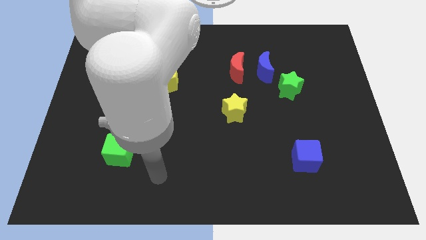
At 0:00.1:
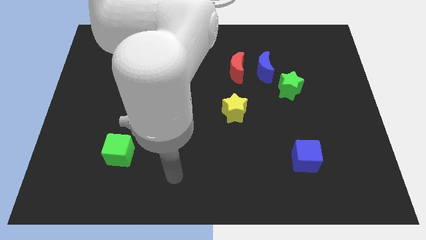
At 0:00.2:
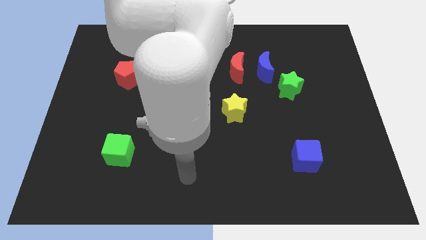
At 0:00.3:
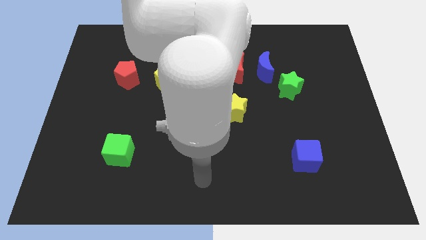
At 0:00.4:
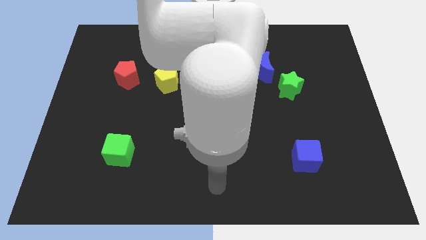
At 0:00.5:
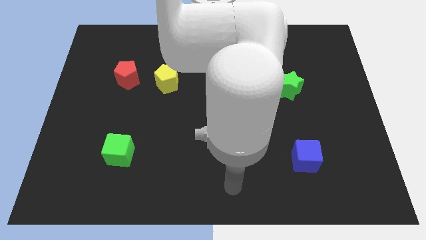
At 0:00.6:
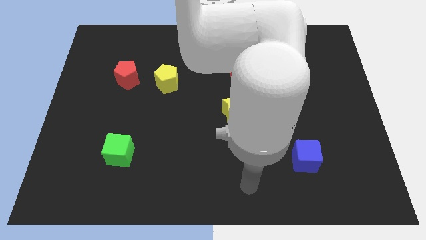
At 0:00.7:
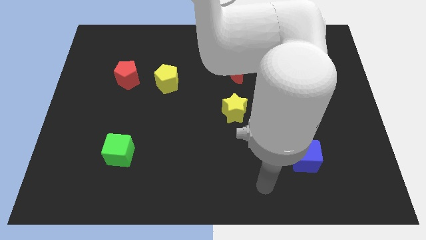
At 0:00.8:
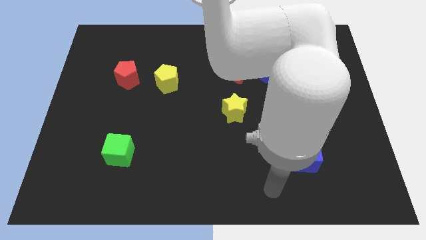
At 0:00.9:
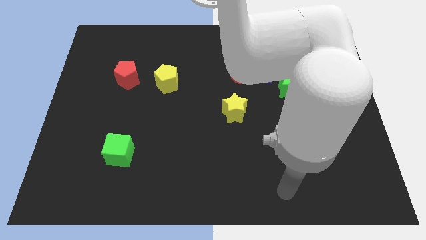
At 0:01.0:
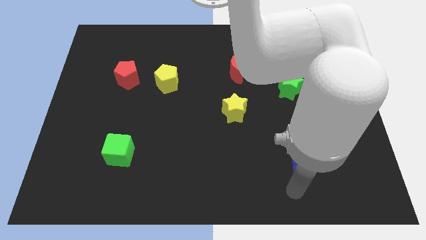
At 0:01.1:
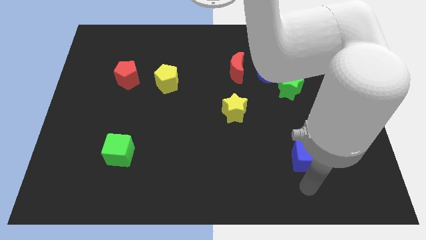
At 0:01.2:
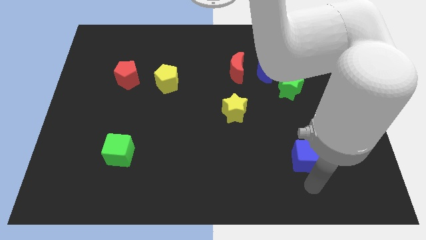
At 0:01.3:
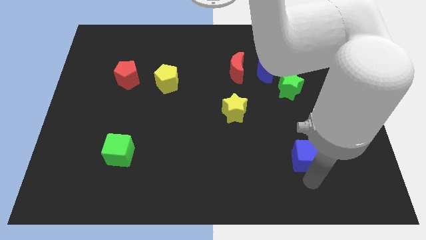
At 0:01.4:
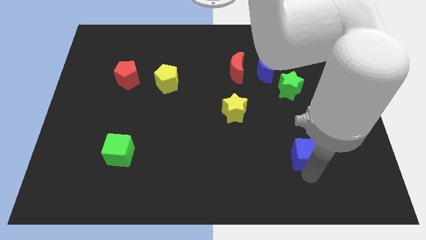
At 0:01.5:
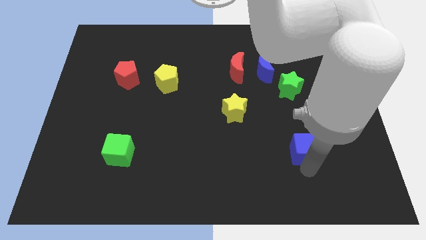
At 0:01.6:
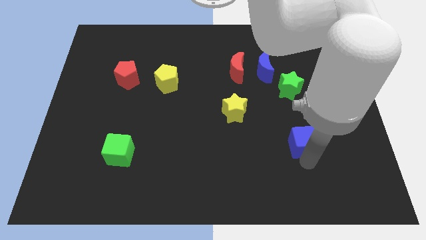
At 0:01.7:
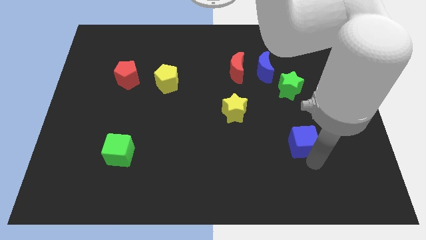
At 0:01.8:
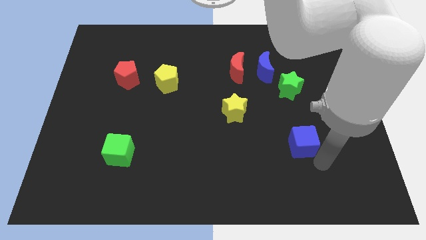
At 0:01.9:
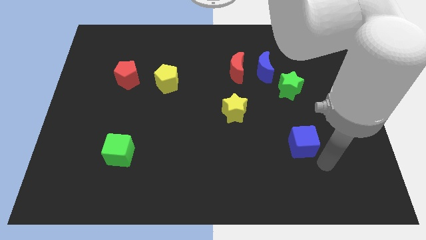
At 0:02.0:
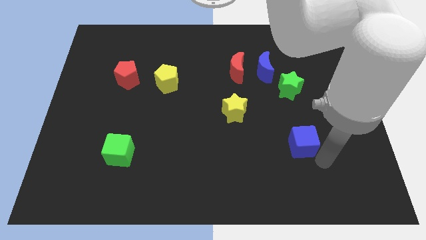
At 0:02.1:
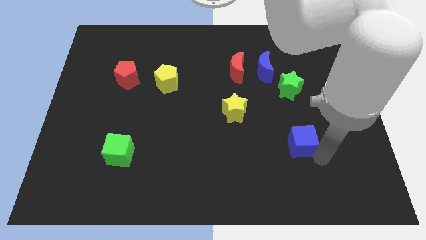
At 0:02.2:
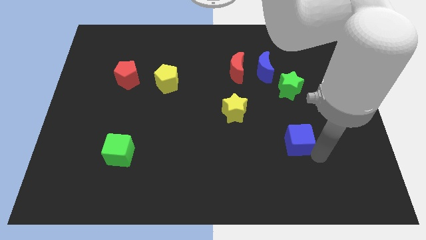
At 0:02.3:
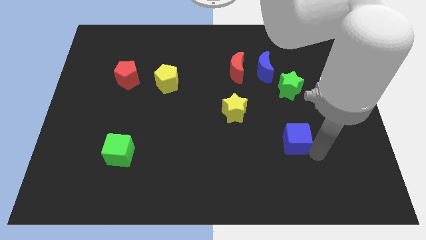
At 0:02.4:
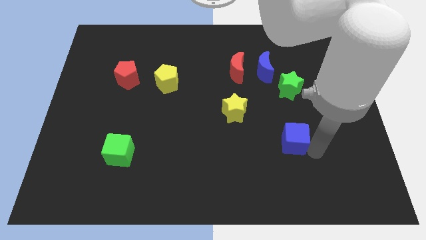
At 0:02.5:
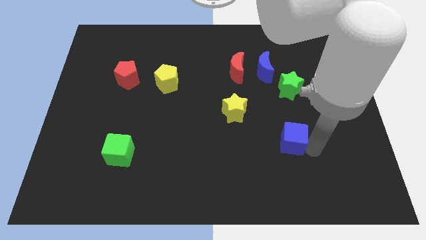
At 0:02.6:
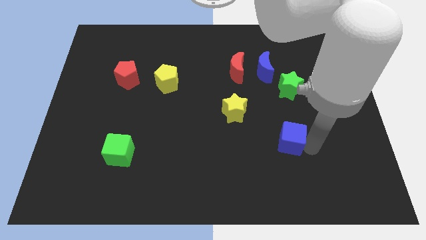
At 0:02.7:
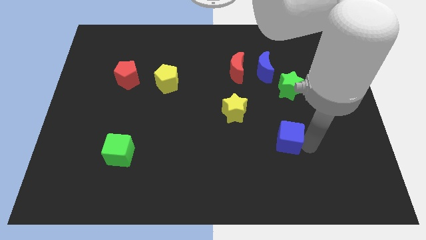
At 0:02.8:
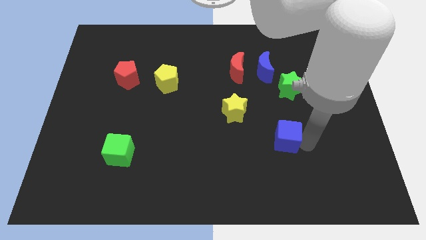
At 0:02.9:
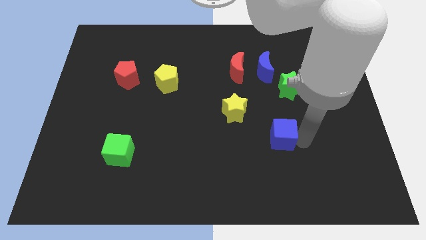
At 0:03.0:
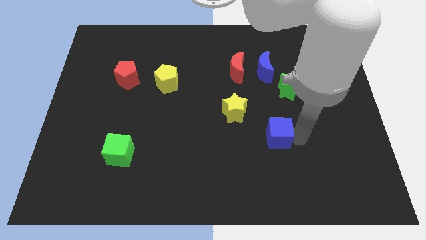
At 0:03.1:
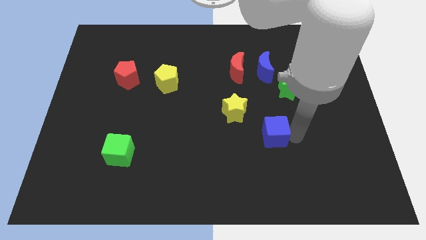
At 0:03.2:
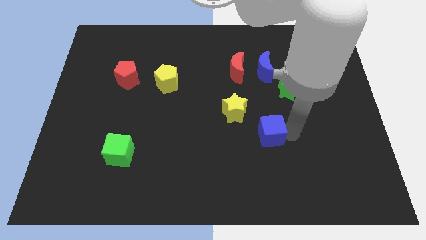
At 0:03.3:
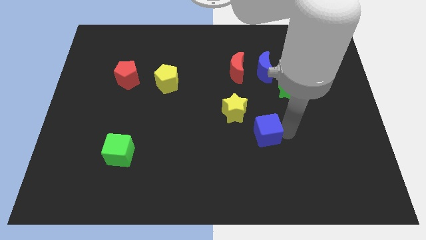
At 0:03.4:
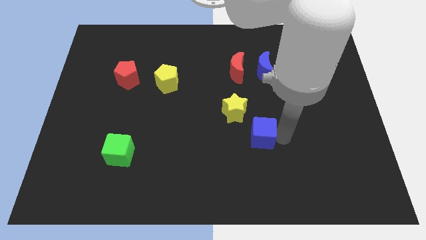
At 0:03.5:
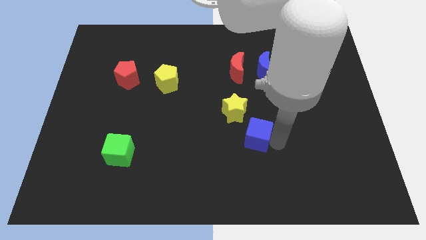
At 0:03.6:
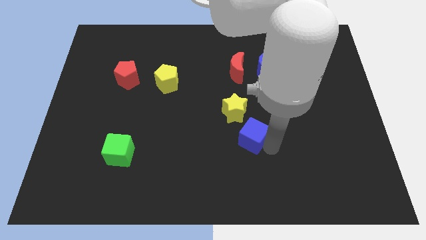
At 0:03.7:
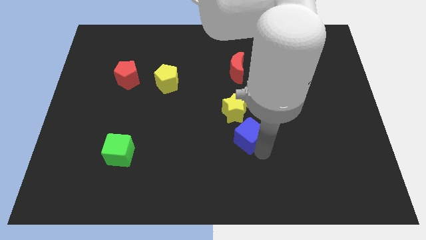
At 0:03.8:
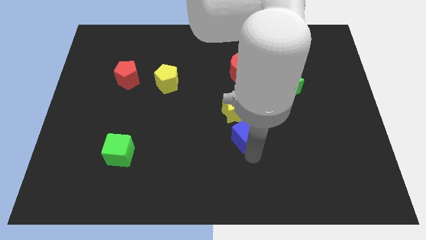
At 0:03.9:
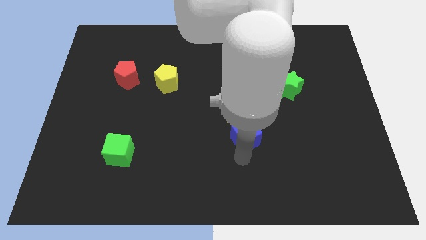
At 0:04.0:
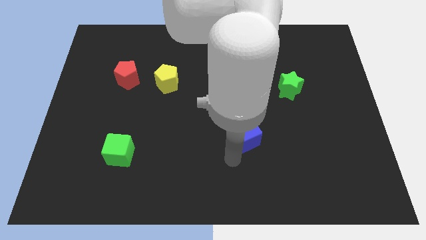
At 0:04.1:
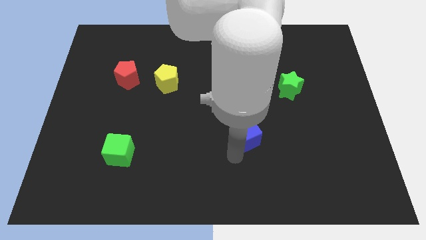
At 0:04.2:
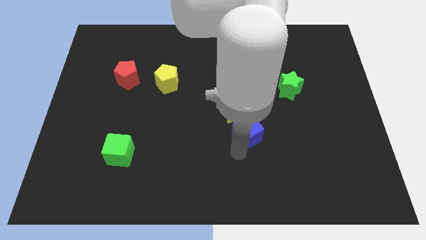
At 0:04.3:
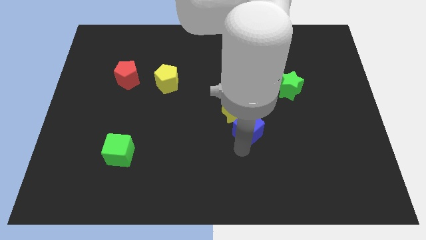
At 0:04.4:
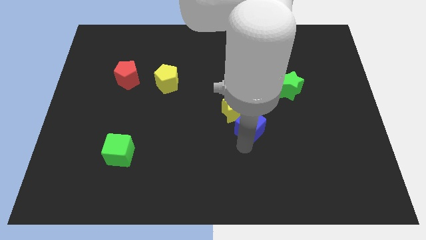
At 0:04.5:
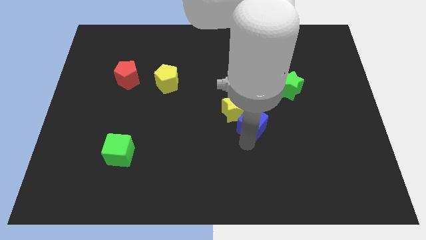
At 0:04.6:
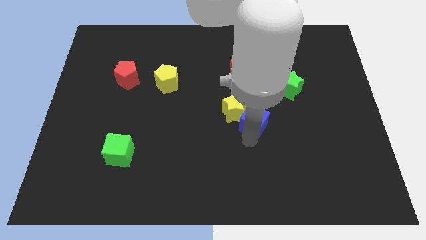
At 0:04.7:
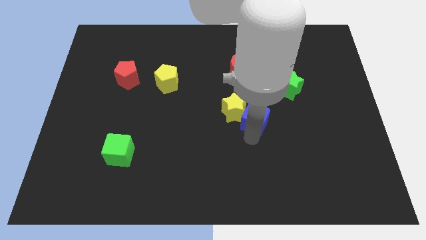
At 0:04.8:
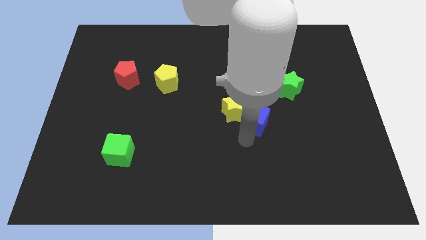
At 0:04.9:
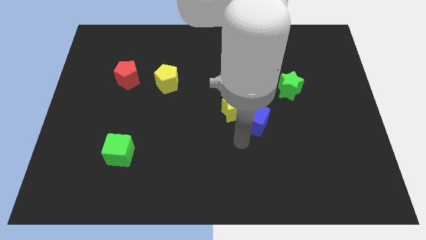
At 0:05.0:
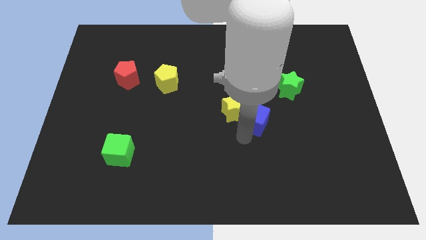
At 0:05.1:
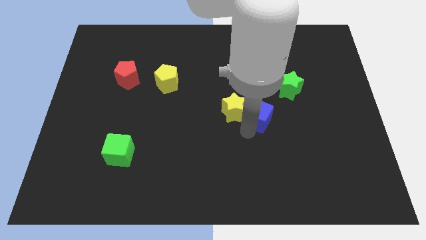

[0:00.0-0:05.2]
push the blue cube below the blue moon

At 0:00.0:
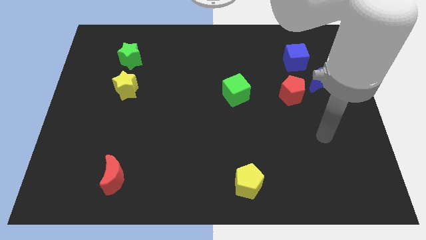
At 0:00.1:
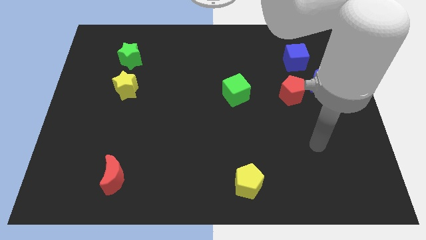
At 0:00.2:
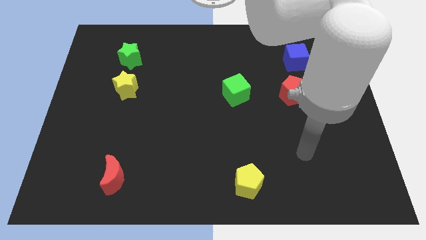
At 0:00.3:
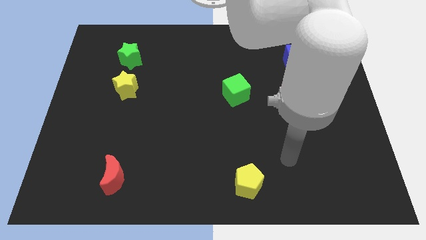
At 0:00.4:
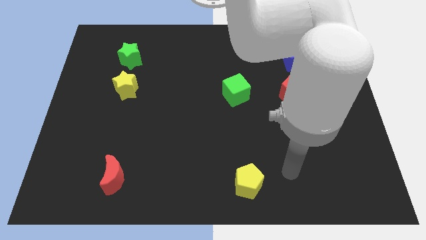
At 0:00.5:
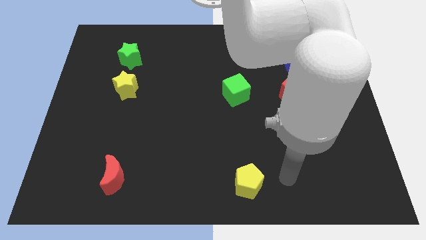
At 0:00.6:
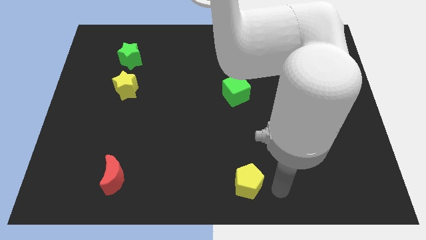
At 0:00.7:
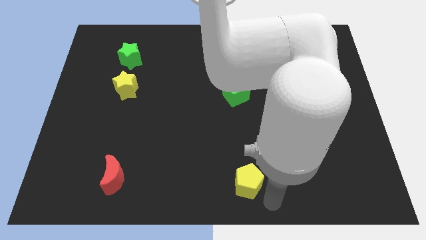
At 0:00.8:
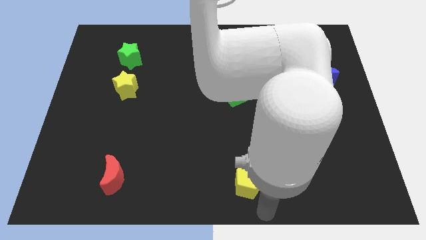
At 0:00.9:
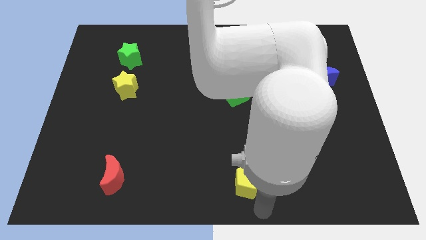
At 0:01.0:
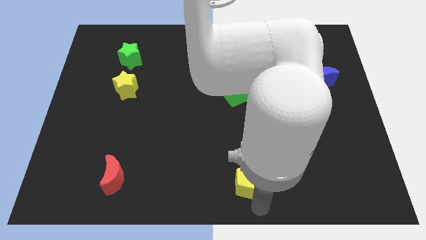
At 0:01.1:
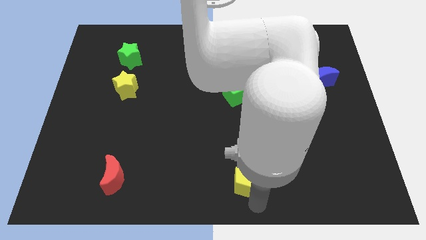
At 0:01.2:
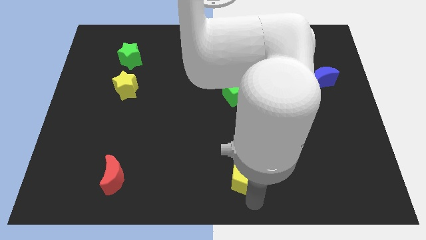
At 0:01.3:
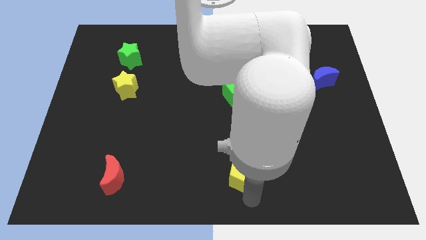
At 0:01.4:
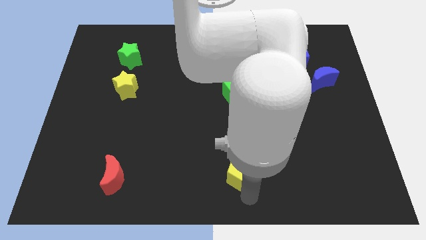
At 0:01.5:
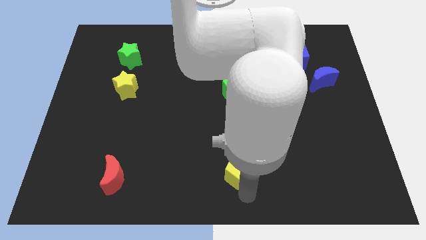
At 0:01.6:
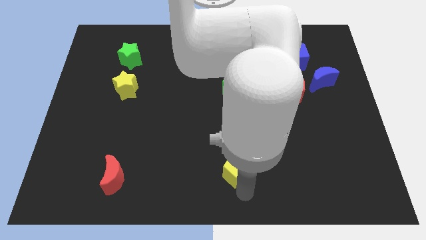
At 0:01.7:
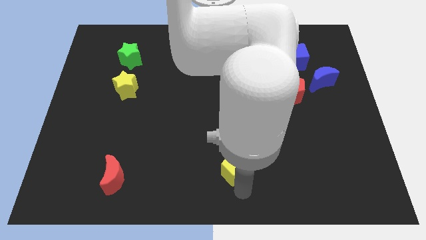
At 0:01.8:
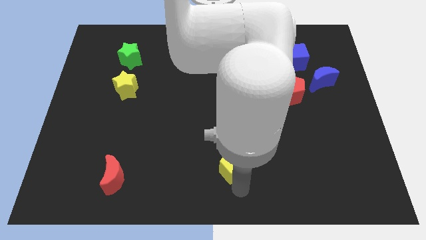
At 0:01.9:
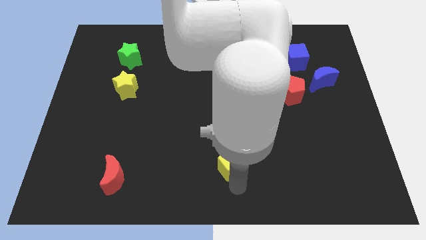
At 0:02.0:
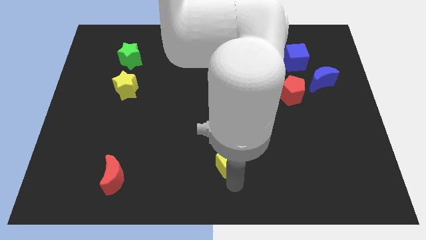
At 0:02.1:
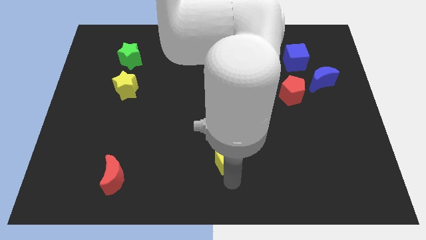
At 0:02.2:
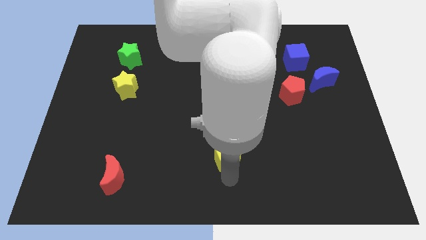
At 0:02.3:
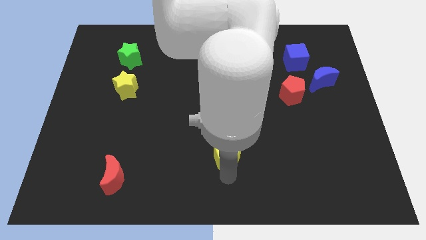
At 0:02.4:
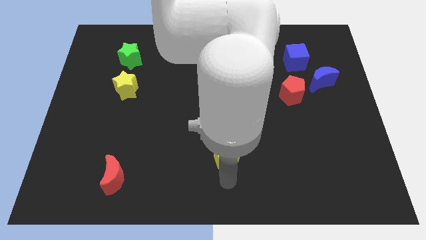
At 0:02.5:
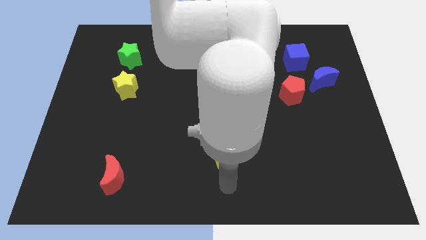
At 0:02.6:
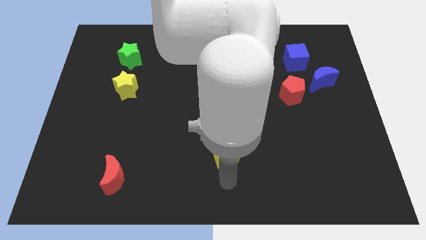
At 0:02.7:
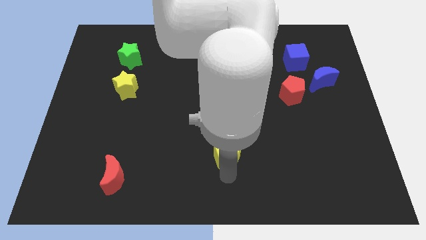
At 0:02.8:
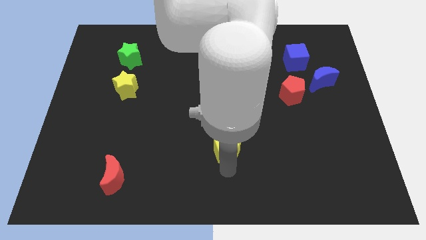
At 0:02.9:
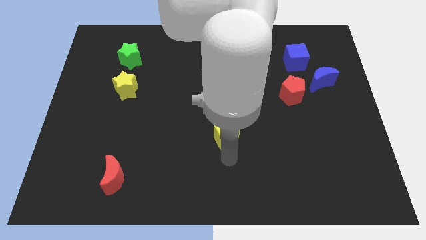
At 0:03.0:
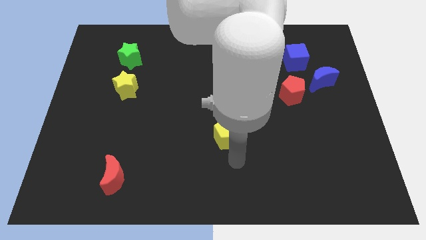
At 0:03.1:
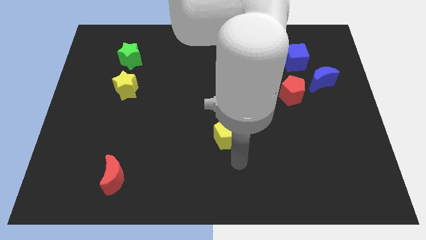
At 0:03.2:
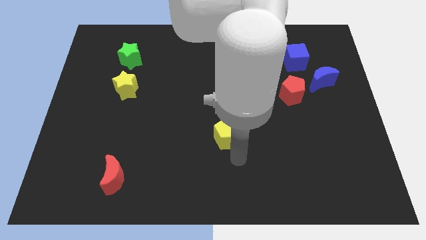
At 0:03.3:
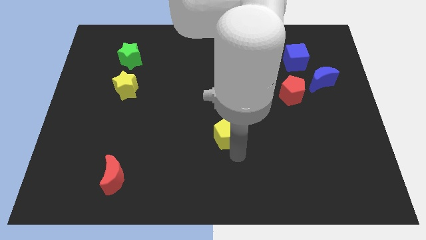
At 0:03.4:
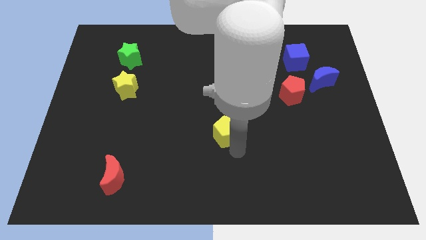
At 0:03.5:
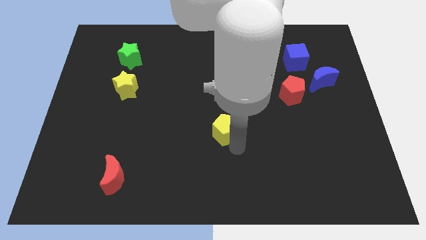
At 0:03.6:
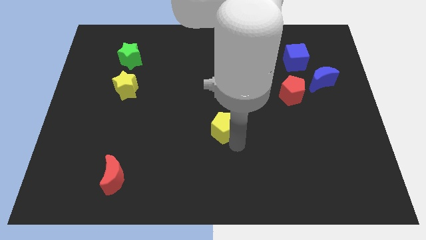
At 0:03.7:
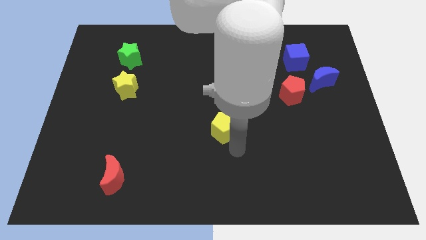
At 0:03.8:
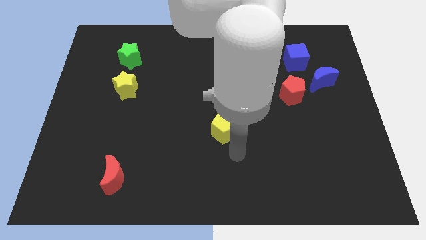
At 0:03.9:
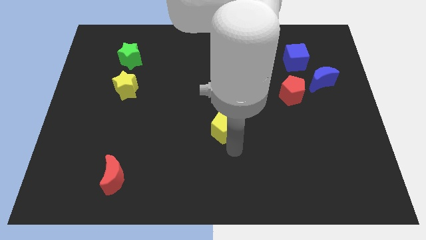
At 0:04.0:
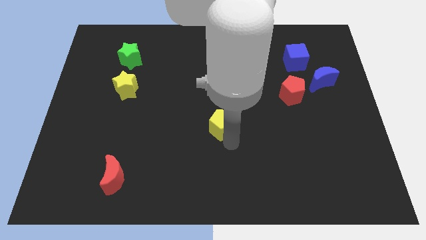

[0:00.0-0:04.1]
move the yellow pentagon diagonally down and to the left of the green cube
